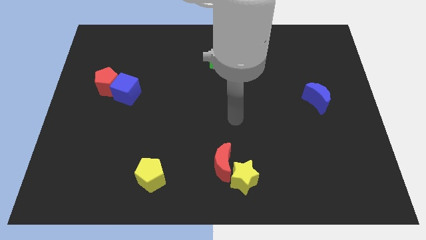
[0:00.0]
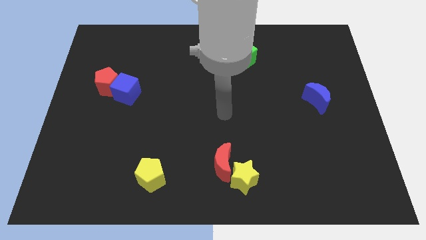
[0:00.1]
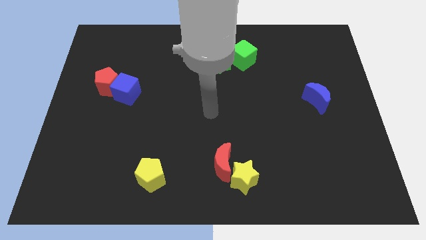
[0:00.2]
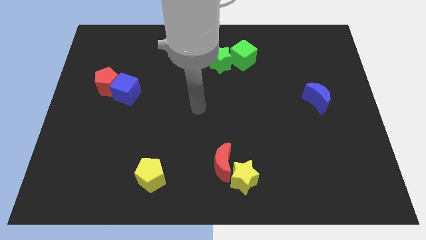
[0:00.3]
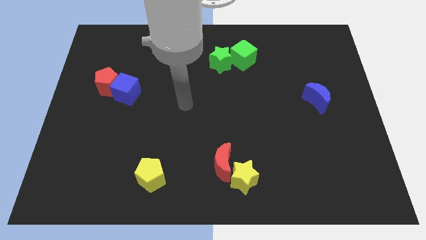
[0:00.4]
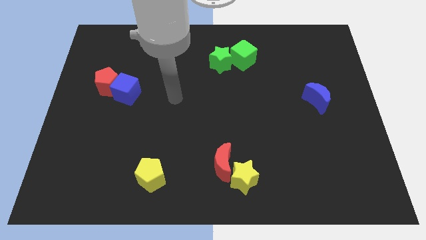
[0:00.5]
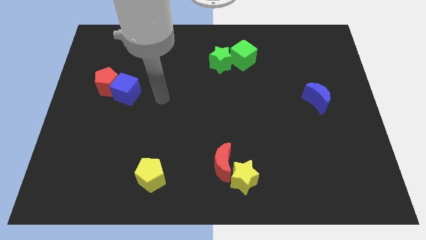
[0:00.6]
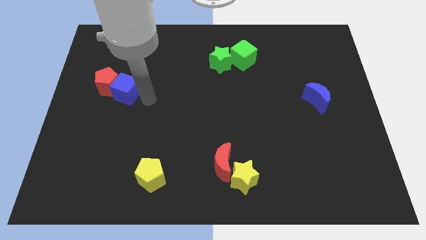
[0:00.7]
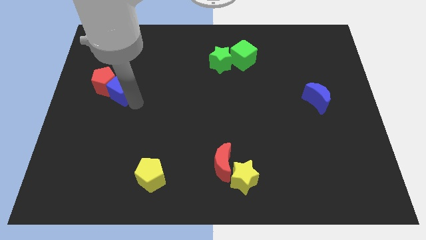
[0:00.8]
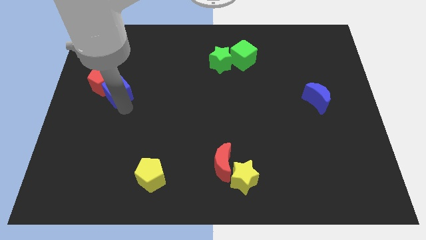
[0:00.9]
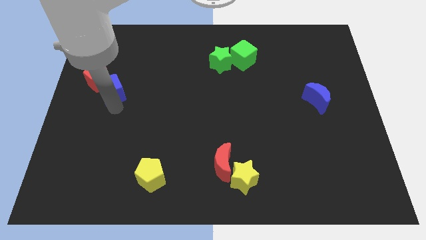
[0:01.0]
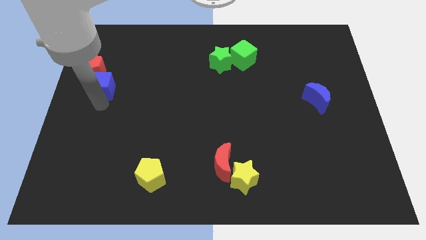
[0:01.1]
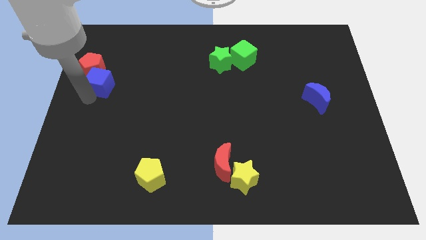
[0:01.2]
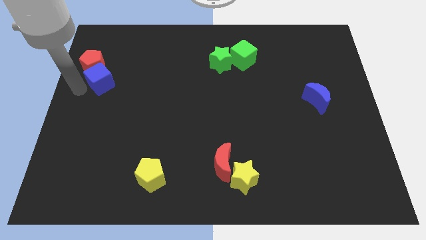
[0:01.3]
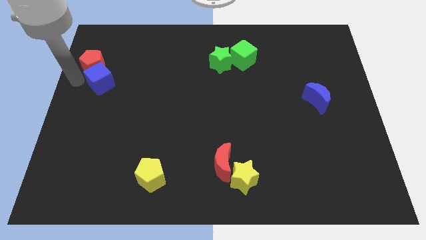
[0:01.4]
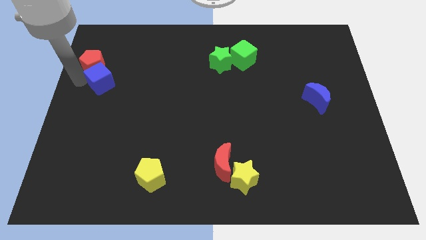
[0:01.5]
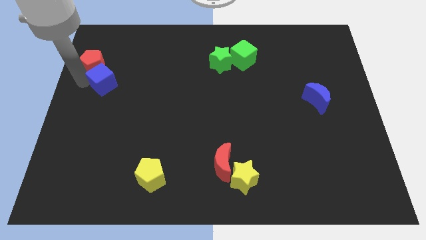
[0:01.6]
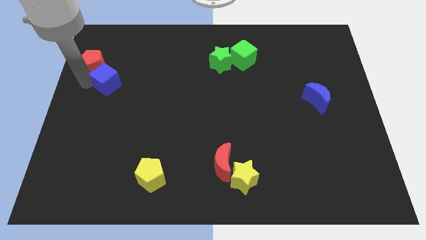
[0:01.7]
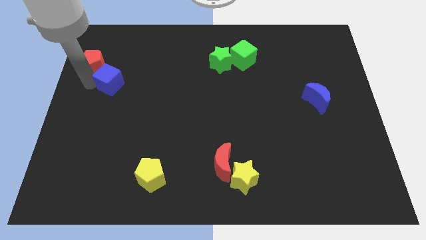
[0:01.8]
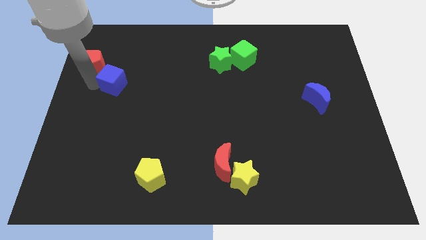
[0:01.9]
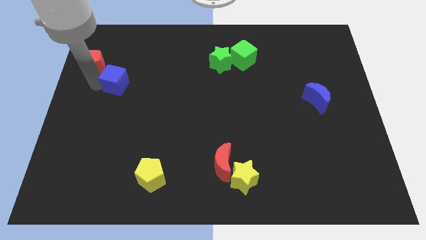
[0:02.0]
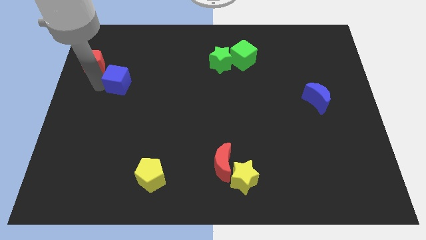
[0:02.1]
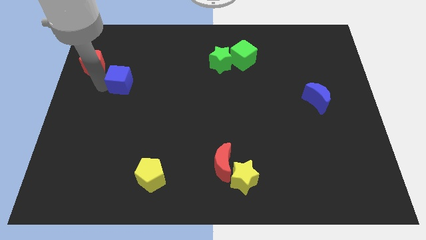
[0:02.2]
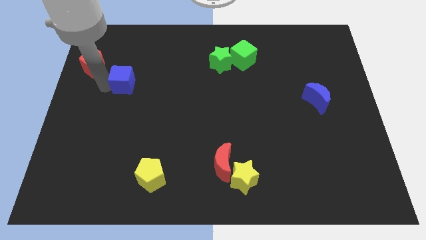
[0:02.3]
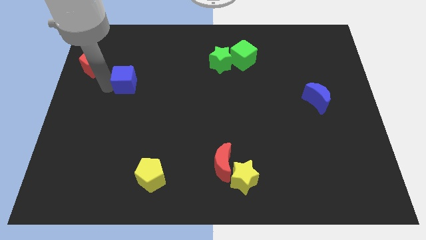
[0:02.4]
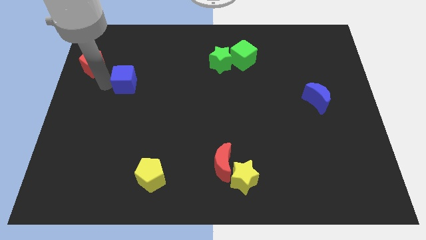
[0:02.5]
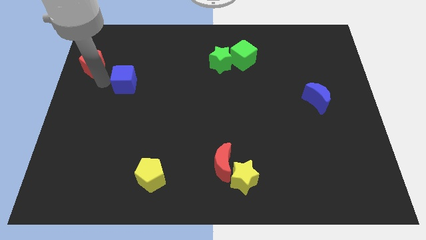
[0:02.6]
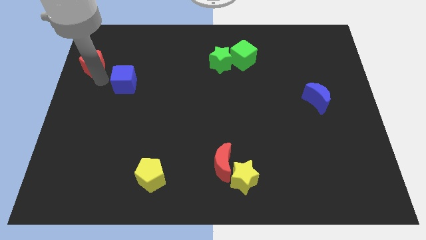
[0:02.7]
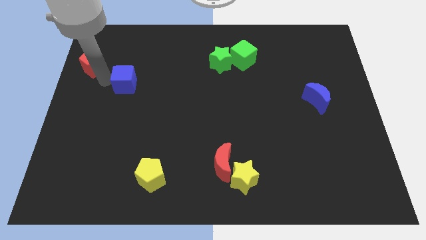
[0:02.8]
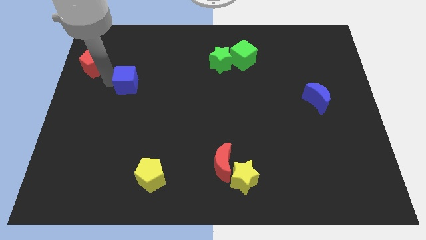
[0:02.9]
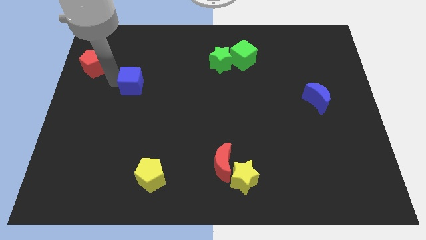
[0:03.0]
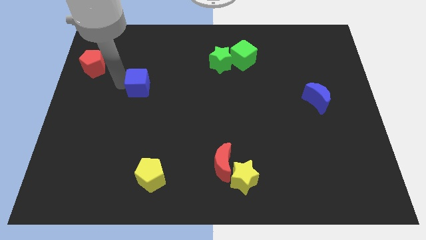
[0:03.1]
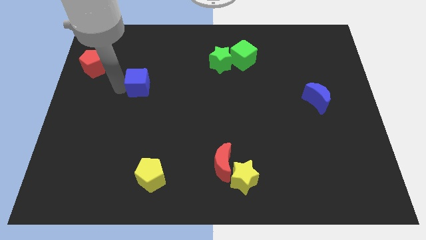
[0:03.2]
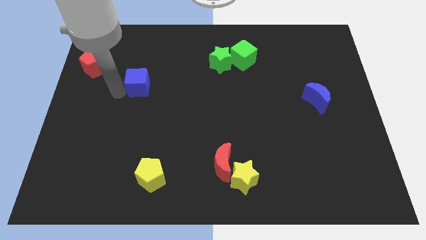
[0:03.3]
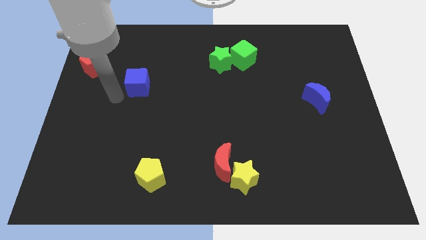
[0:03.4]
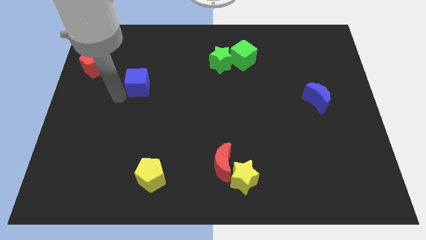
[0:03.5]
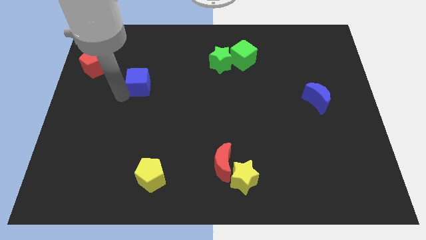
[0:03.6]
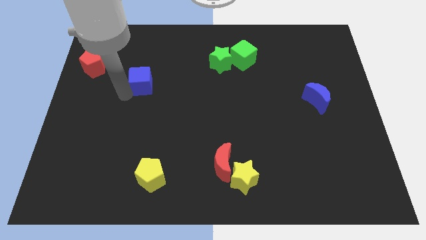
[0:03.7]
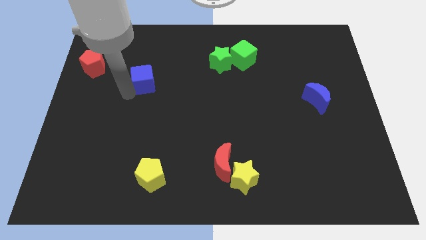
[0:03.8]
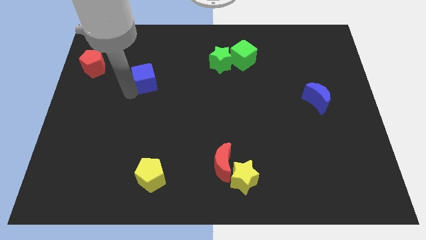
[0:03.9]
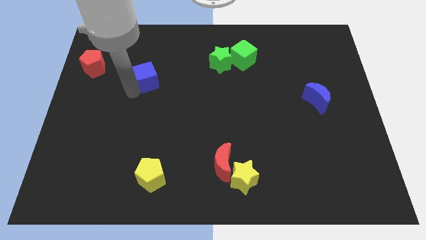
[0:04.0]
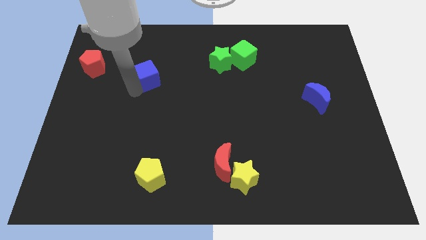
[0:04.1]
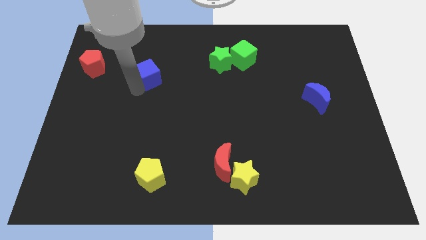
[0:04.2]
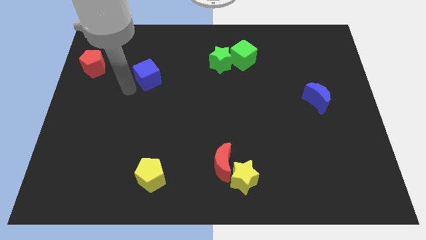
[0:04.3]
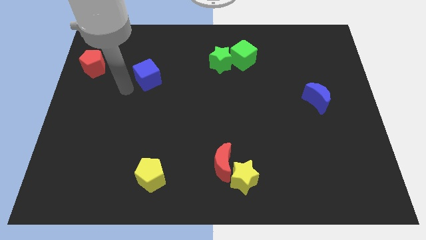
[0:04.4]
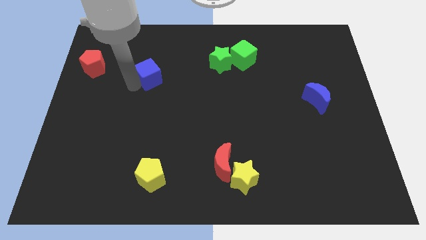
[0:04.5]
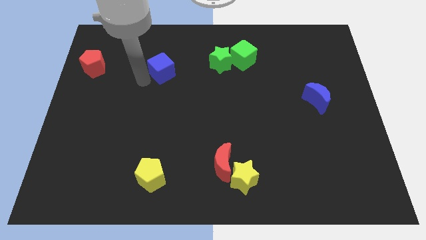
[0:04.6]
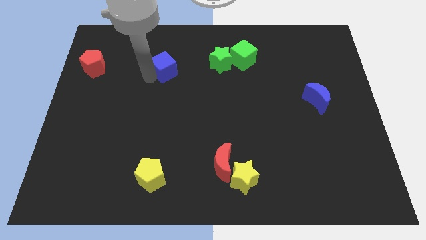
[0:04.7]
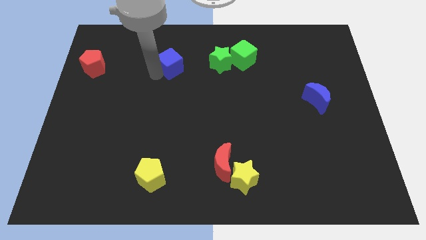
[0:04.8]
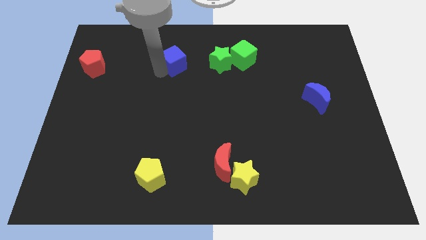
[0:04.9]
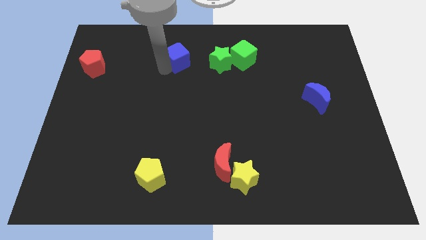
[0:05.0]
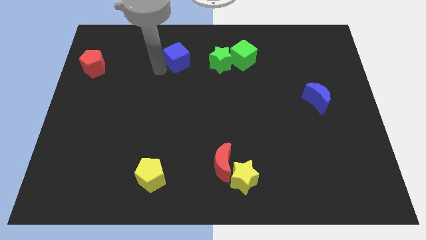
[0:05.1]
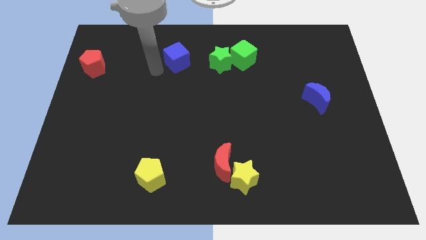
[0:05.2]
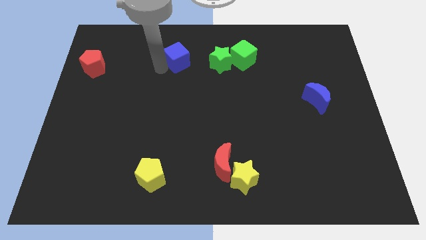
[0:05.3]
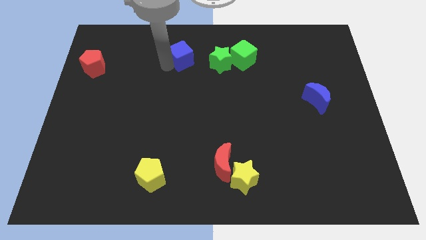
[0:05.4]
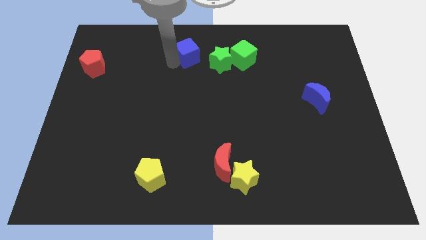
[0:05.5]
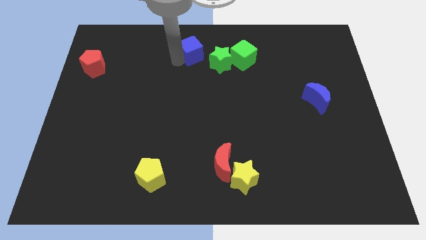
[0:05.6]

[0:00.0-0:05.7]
move the blue cube to the top
